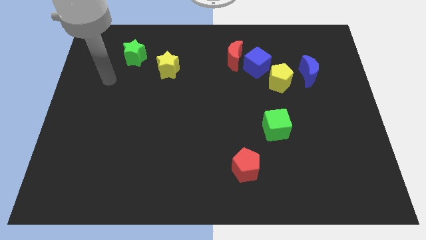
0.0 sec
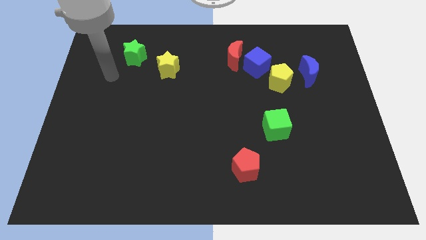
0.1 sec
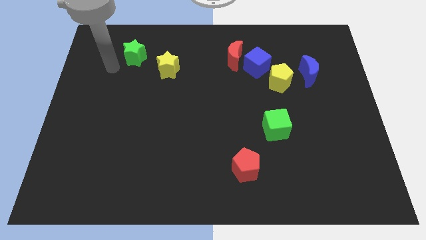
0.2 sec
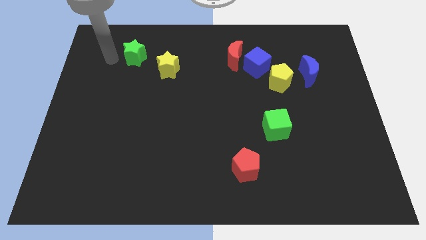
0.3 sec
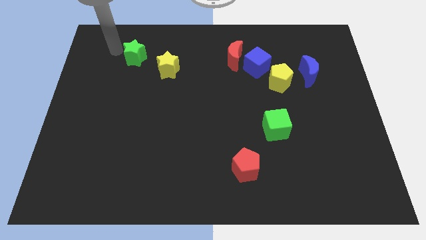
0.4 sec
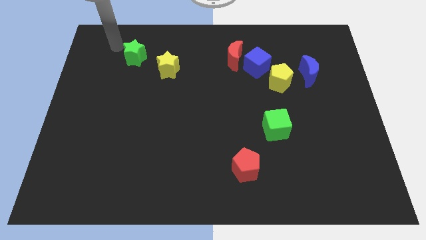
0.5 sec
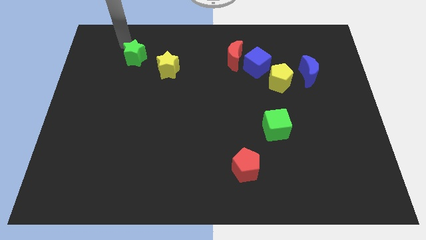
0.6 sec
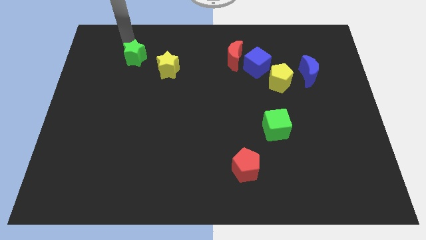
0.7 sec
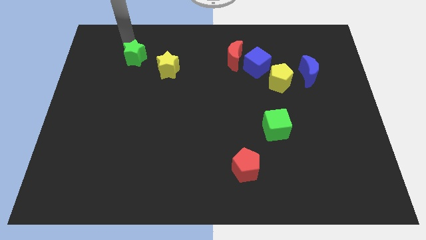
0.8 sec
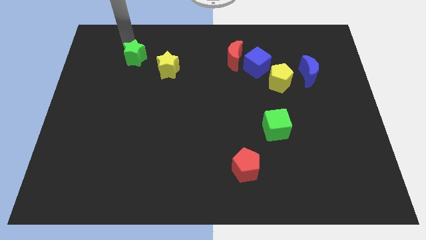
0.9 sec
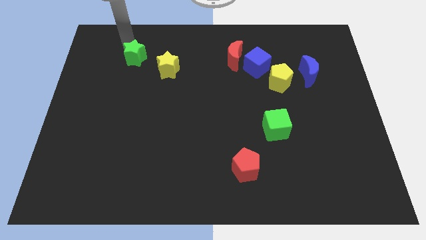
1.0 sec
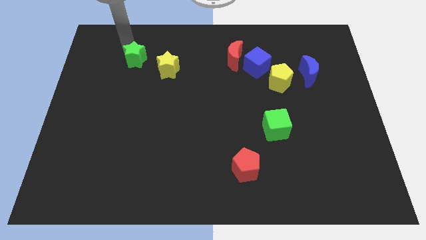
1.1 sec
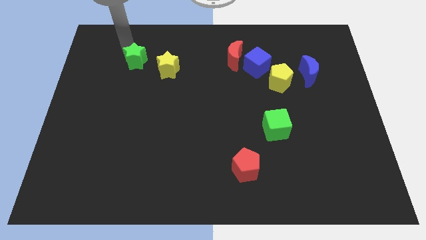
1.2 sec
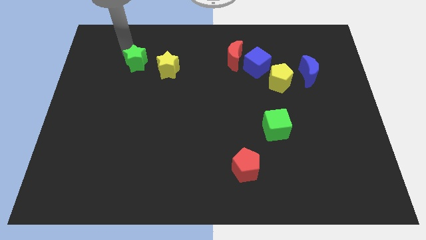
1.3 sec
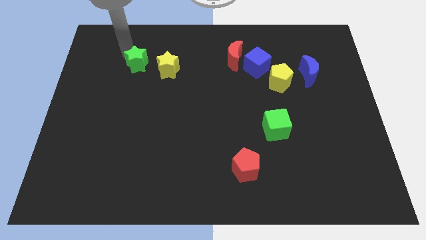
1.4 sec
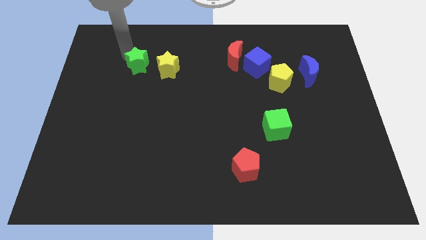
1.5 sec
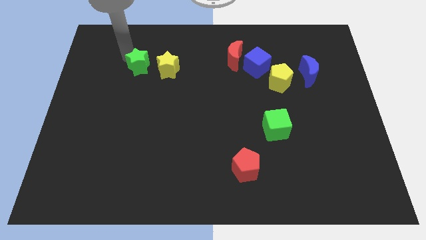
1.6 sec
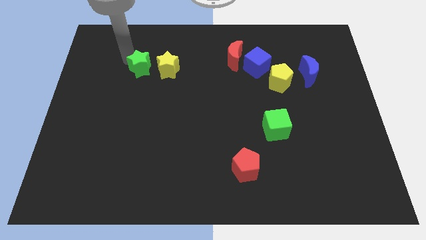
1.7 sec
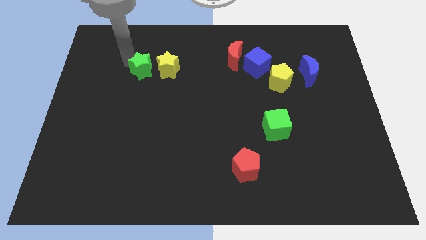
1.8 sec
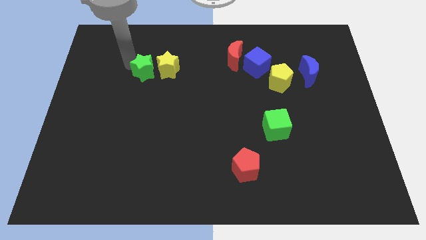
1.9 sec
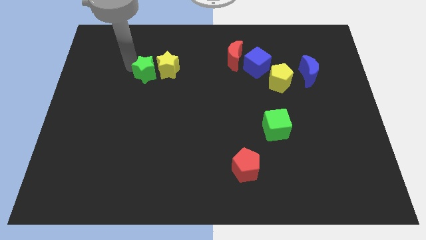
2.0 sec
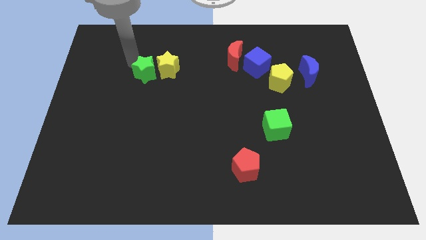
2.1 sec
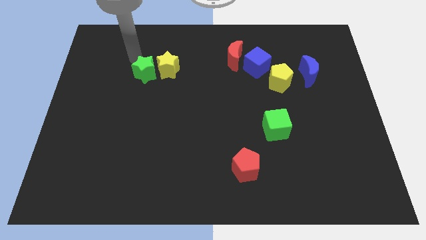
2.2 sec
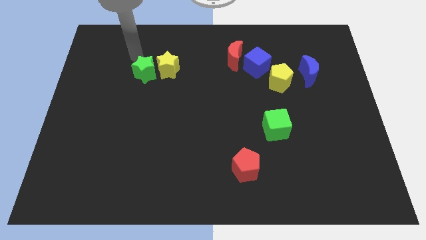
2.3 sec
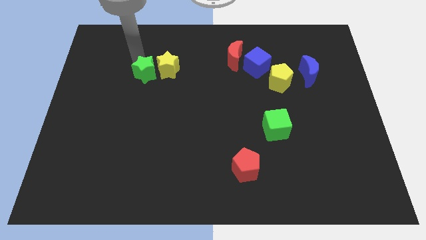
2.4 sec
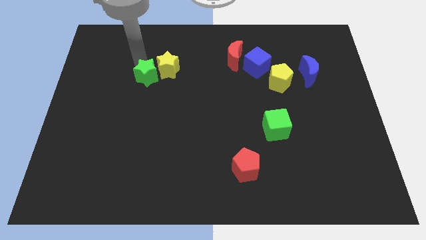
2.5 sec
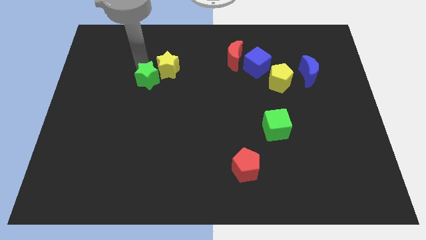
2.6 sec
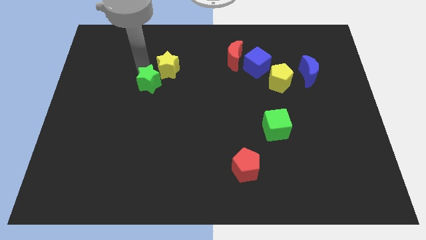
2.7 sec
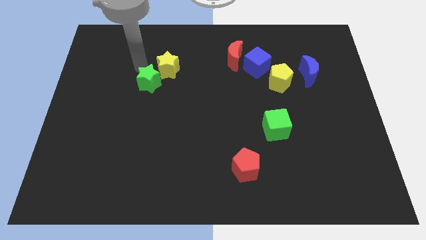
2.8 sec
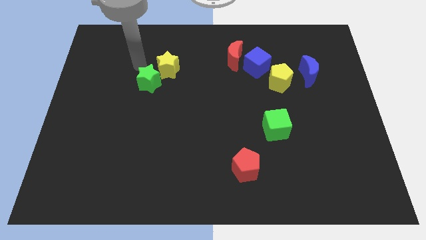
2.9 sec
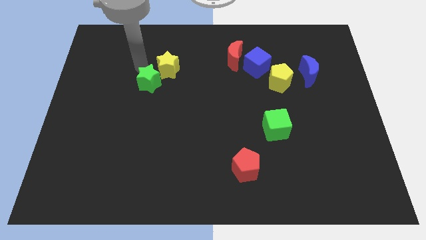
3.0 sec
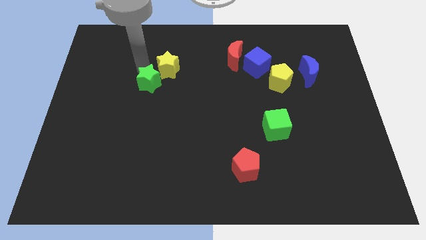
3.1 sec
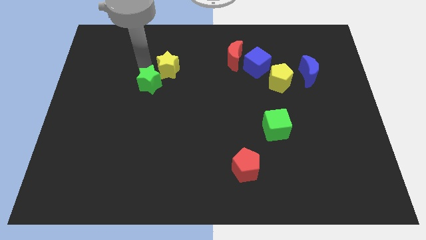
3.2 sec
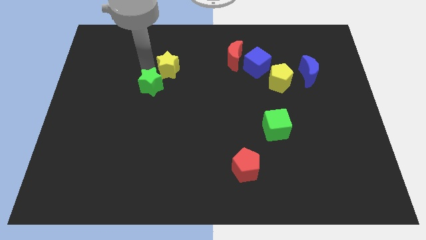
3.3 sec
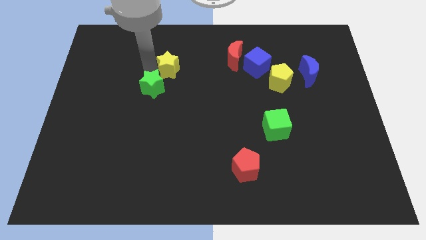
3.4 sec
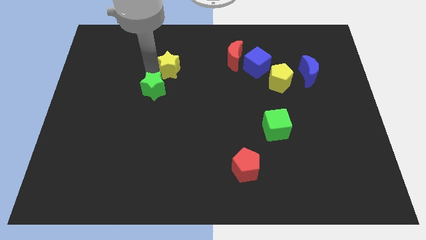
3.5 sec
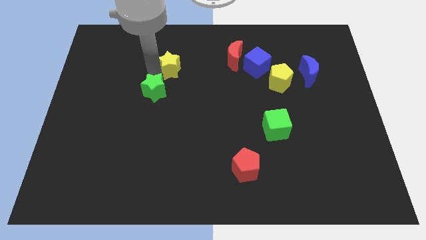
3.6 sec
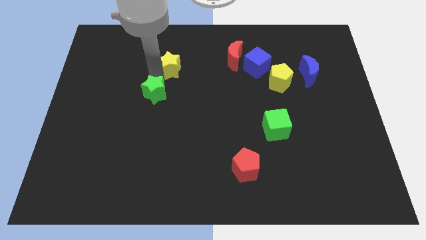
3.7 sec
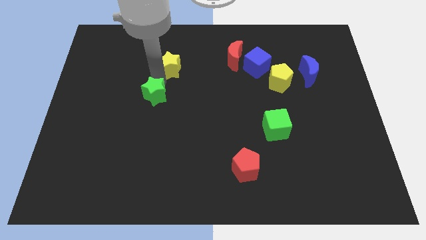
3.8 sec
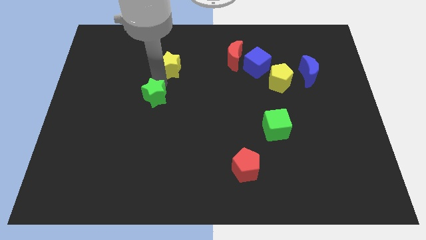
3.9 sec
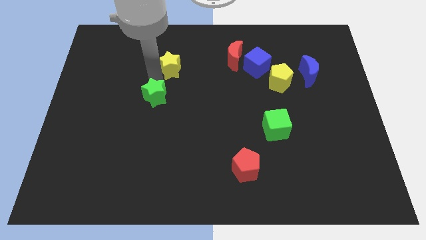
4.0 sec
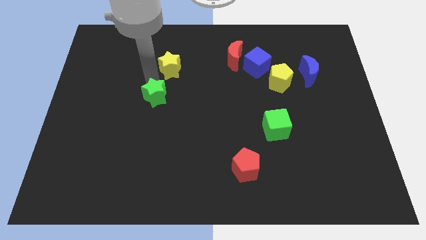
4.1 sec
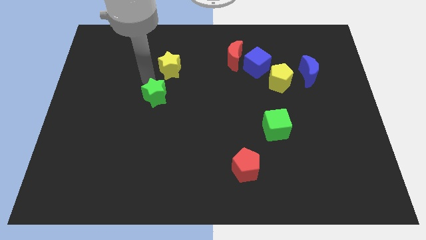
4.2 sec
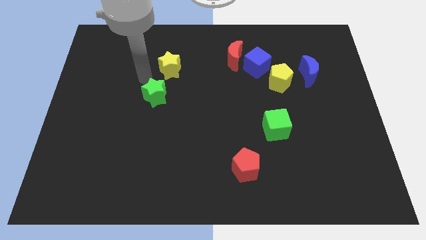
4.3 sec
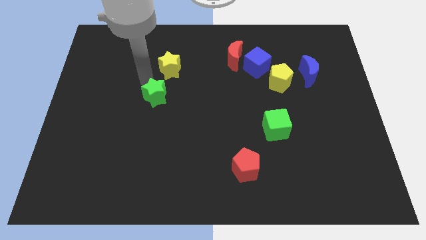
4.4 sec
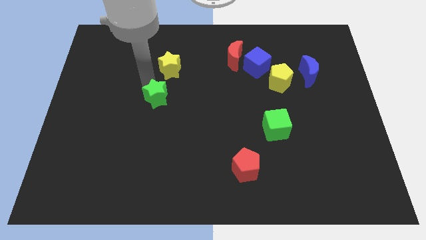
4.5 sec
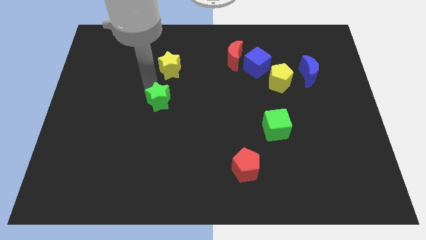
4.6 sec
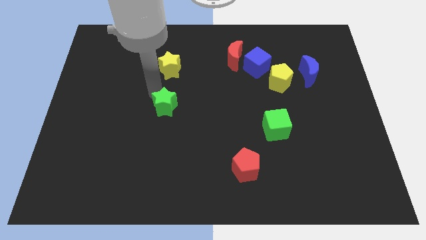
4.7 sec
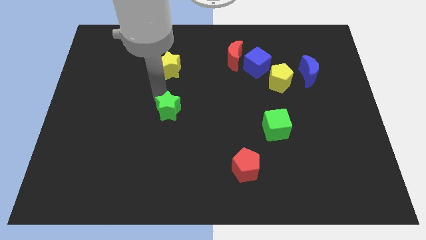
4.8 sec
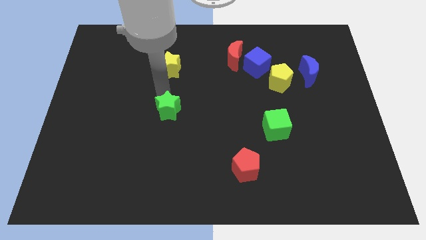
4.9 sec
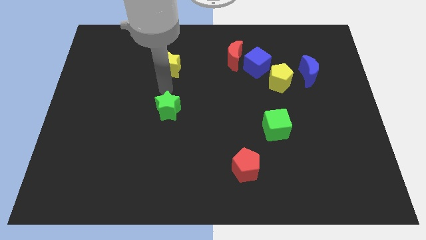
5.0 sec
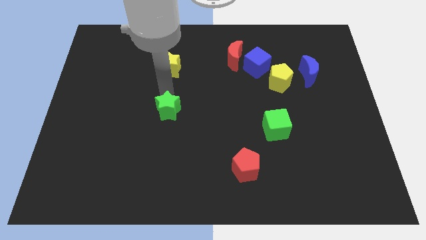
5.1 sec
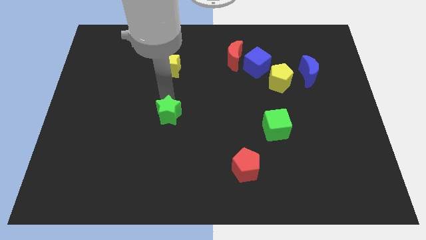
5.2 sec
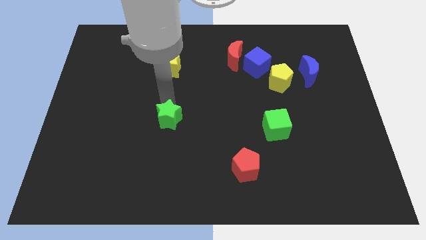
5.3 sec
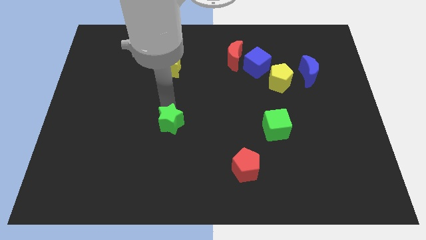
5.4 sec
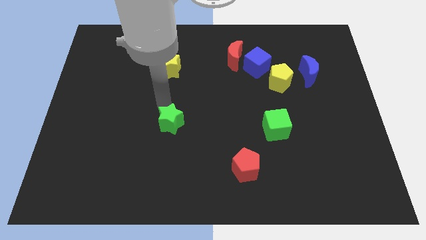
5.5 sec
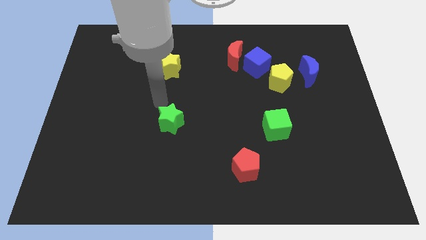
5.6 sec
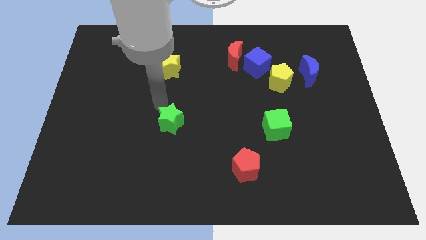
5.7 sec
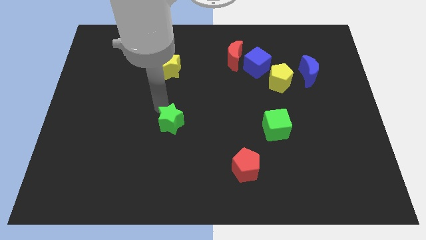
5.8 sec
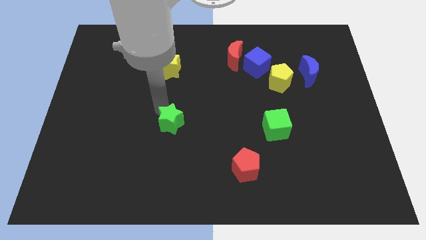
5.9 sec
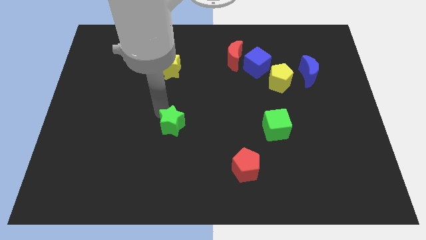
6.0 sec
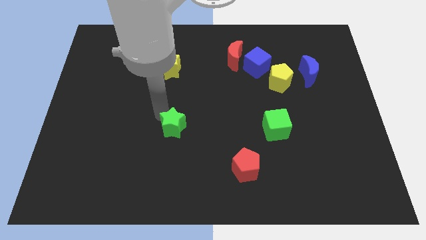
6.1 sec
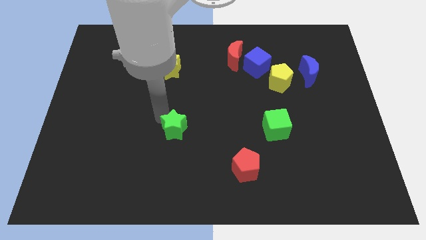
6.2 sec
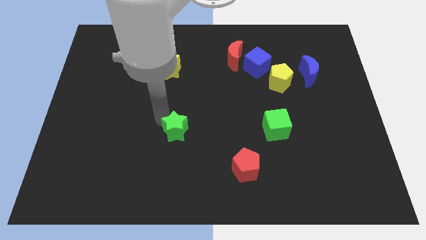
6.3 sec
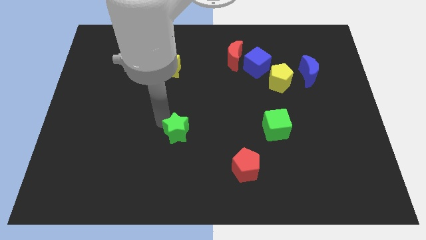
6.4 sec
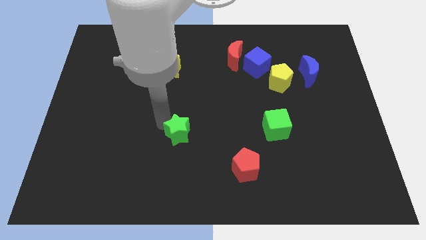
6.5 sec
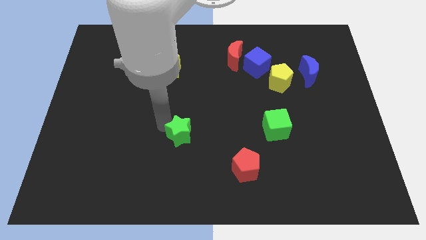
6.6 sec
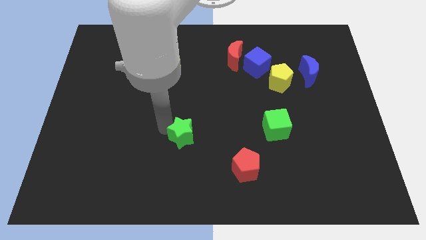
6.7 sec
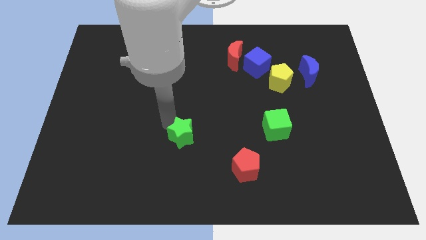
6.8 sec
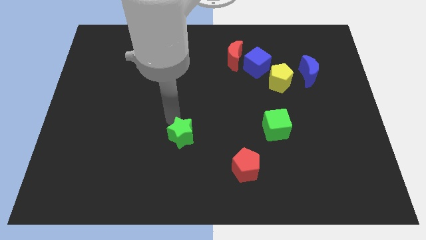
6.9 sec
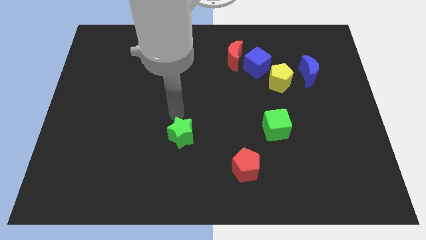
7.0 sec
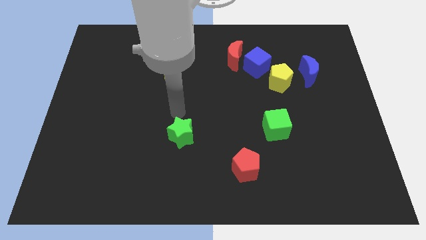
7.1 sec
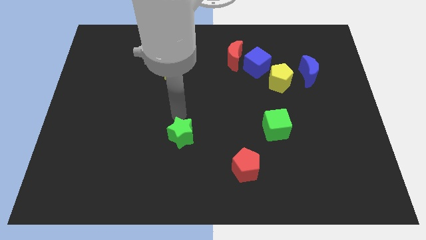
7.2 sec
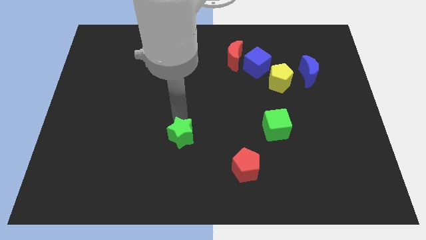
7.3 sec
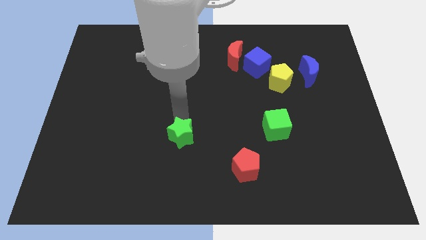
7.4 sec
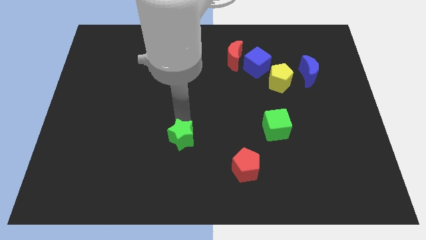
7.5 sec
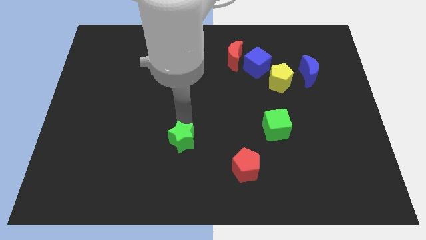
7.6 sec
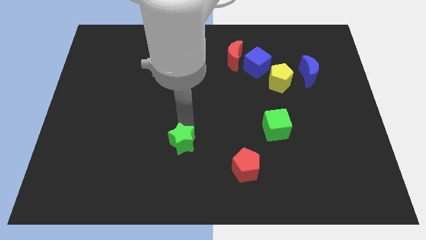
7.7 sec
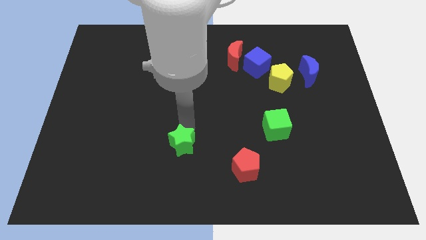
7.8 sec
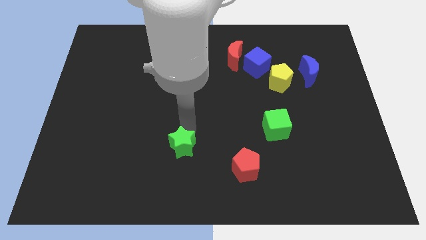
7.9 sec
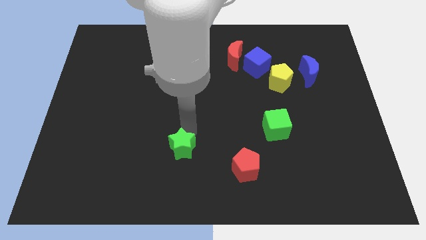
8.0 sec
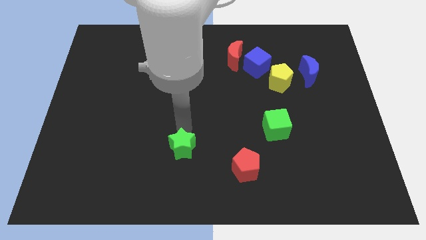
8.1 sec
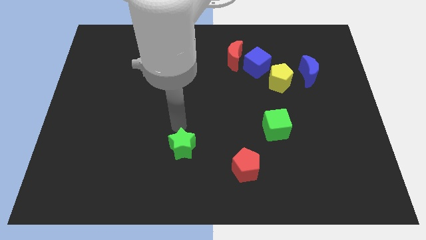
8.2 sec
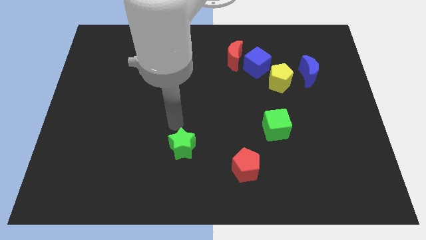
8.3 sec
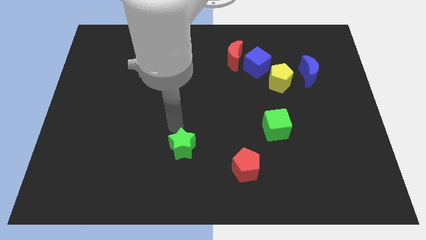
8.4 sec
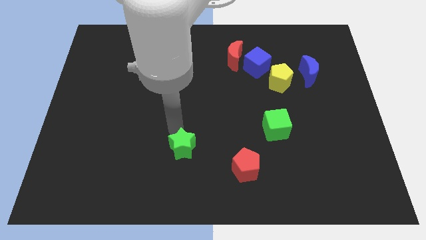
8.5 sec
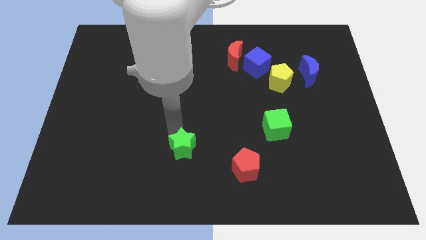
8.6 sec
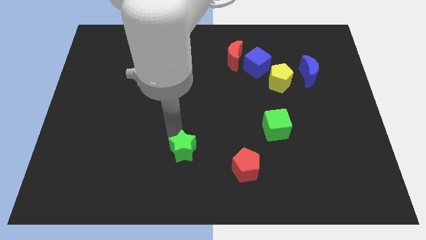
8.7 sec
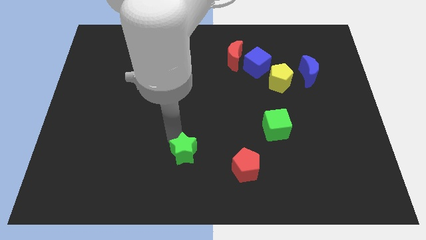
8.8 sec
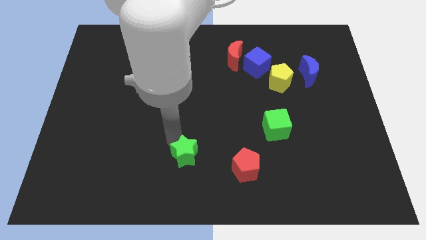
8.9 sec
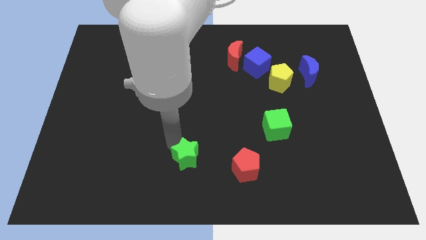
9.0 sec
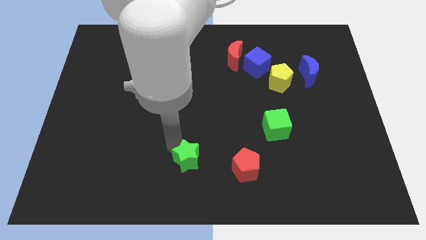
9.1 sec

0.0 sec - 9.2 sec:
move the green star to the bottom
